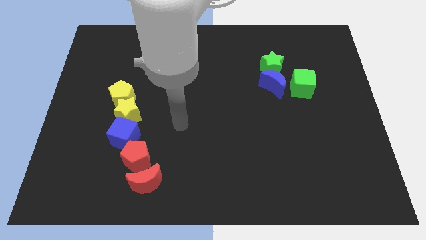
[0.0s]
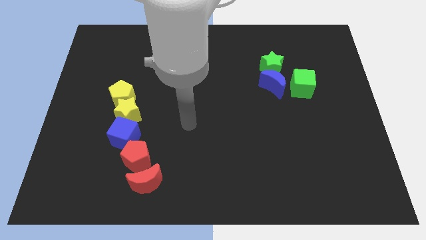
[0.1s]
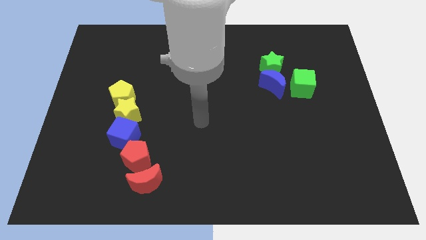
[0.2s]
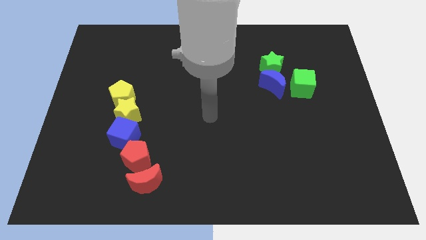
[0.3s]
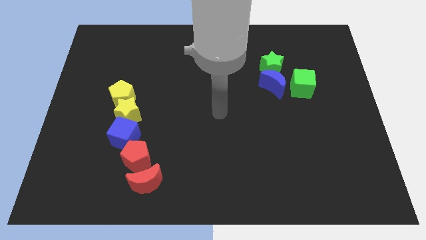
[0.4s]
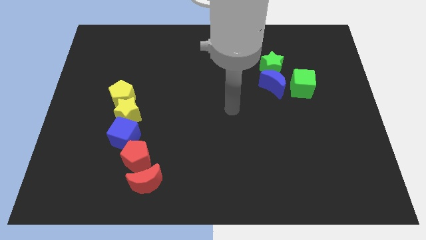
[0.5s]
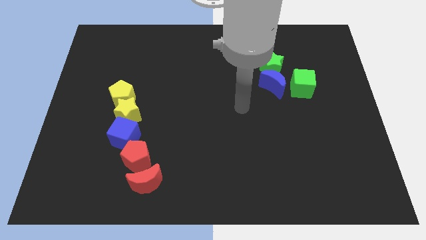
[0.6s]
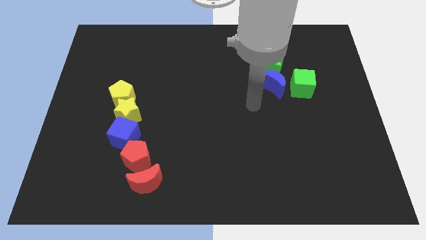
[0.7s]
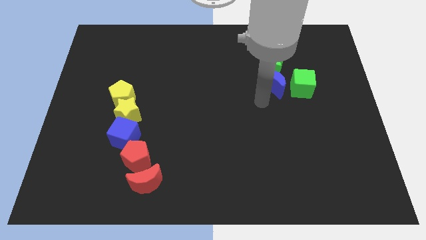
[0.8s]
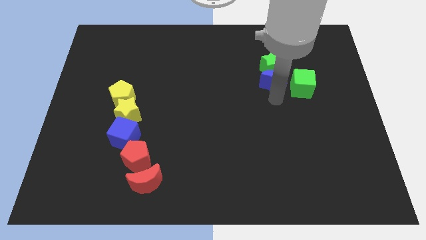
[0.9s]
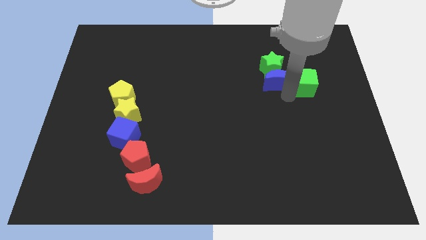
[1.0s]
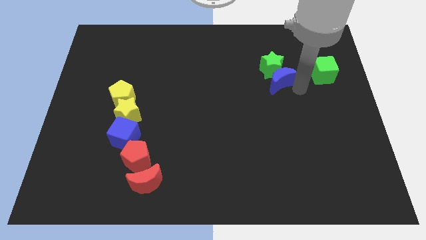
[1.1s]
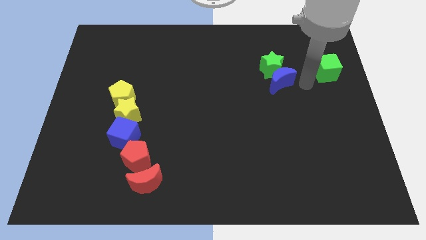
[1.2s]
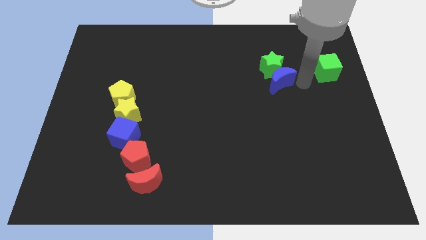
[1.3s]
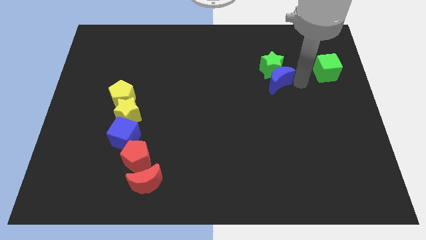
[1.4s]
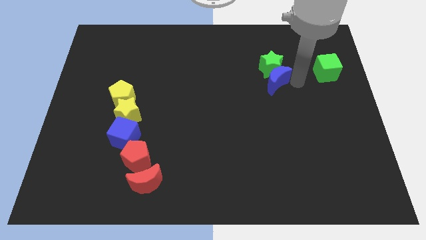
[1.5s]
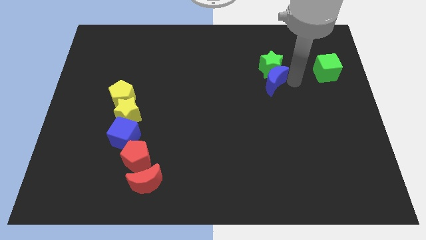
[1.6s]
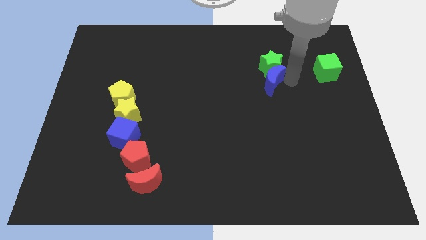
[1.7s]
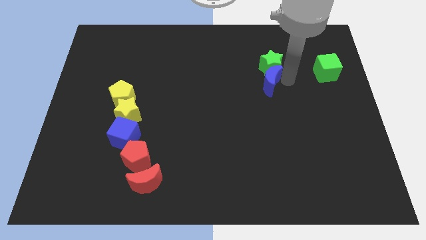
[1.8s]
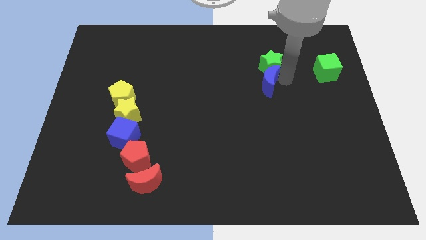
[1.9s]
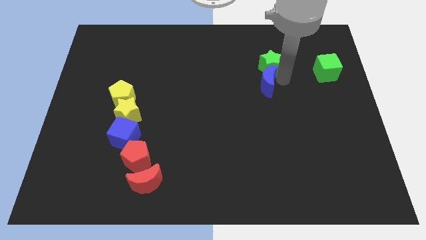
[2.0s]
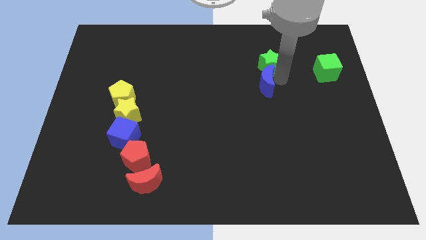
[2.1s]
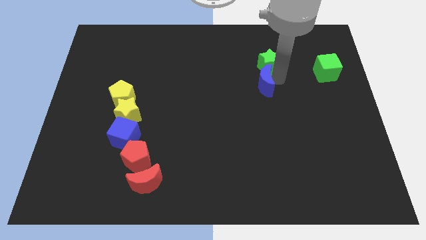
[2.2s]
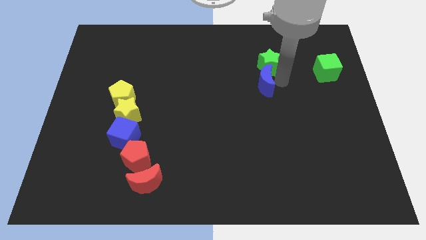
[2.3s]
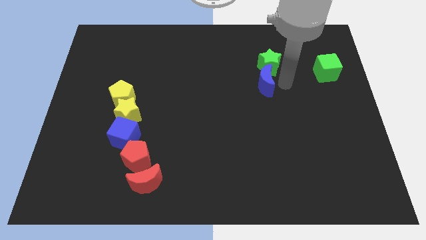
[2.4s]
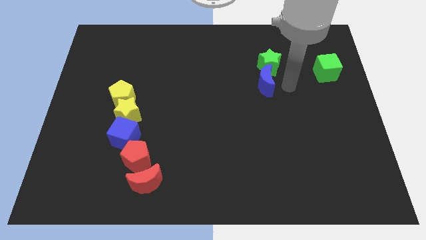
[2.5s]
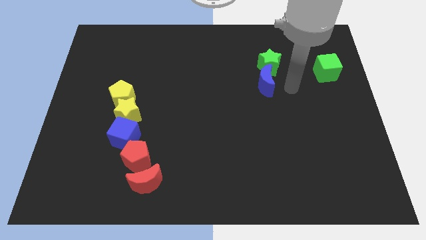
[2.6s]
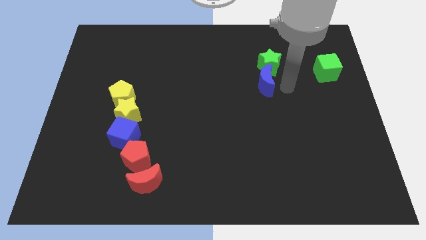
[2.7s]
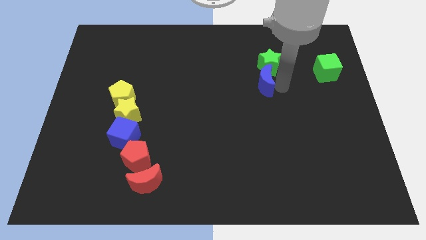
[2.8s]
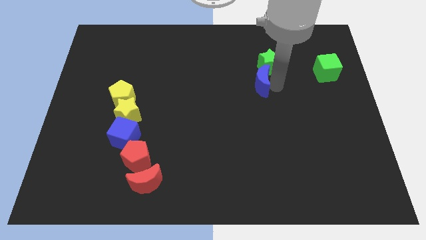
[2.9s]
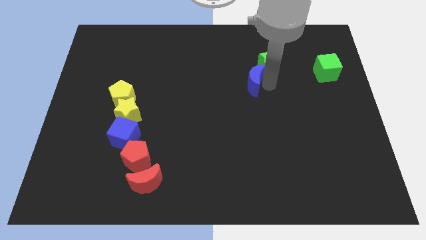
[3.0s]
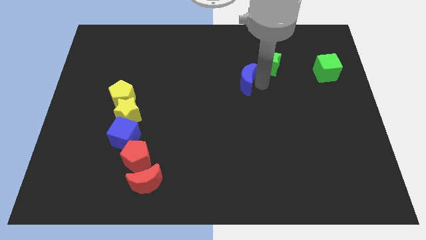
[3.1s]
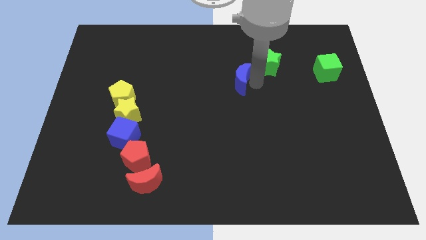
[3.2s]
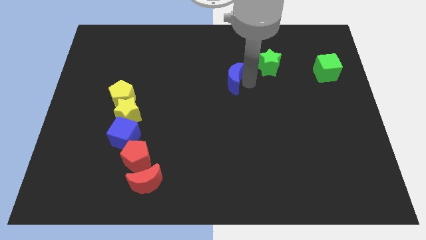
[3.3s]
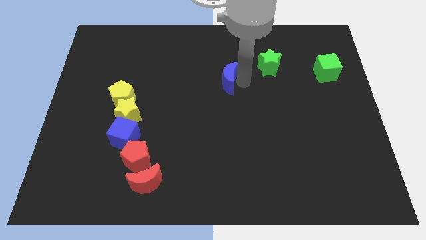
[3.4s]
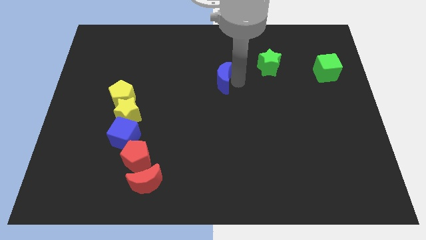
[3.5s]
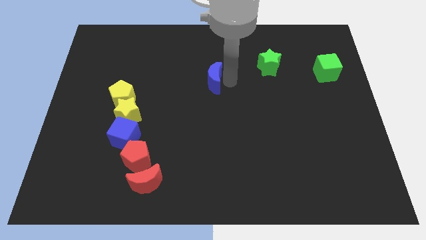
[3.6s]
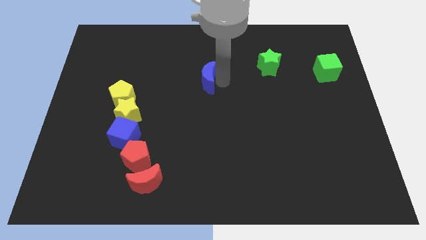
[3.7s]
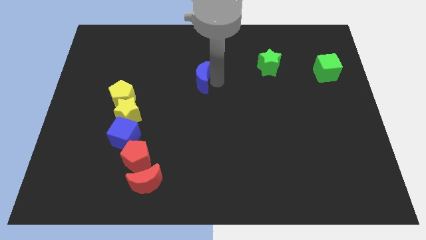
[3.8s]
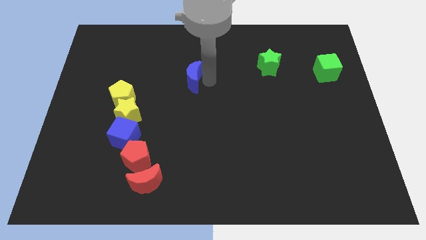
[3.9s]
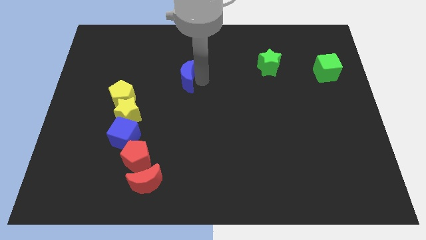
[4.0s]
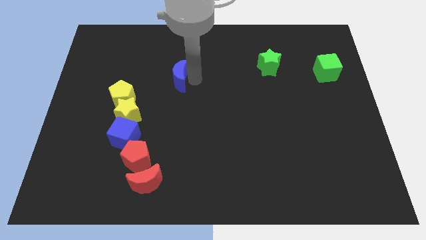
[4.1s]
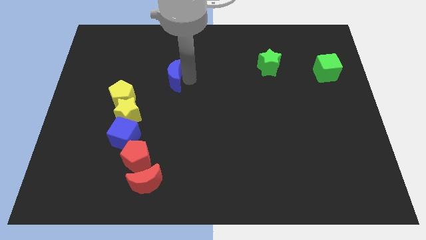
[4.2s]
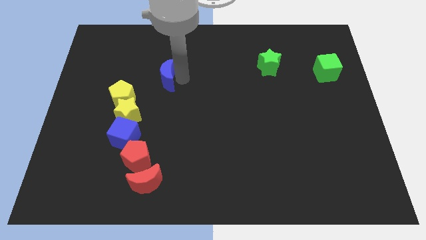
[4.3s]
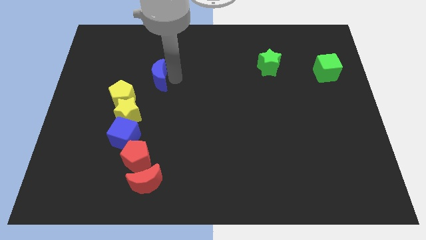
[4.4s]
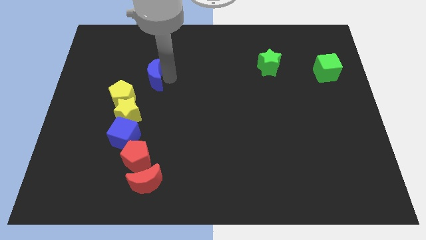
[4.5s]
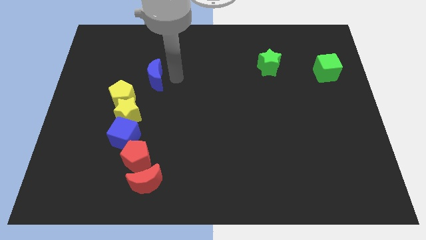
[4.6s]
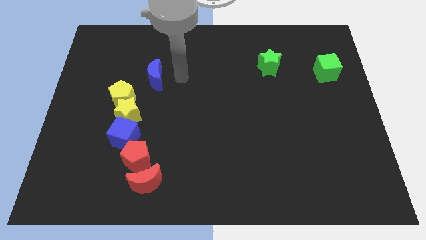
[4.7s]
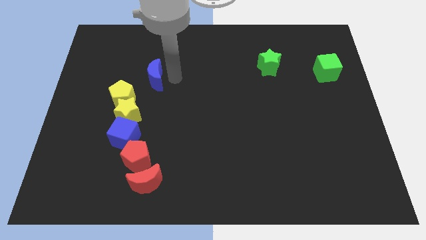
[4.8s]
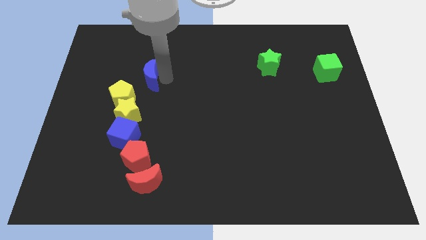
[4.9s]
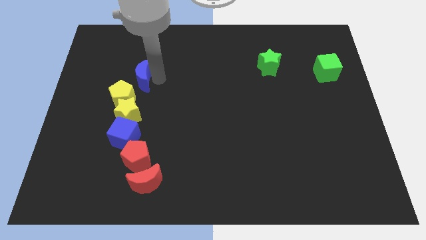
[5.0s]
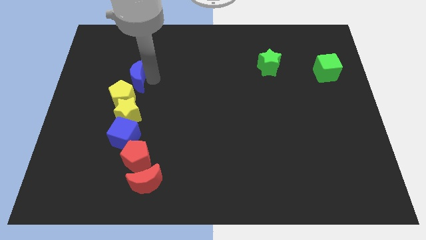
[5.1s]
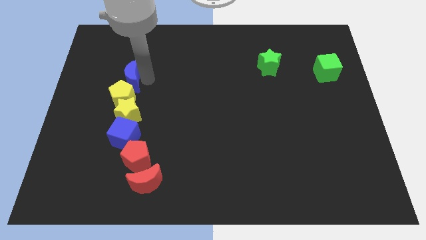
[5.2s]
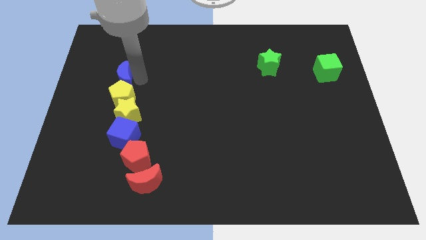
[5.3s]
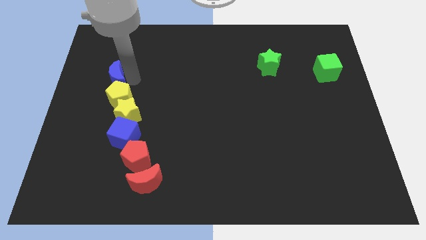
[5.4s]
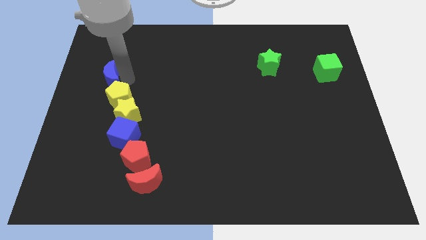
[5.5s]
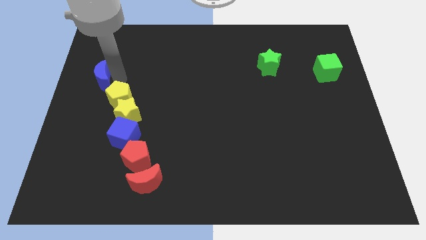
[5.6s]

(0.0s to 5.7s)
slide the blue moon to the left side of the board

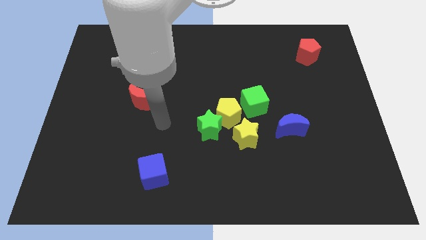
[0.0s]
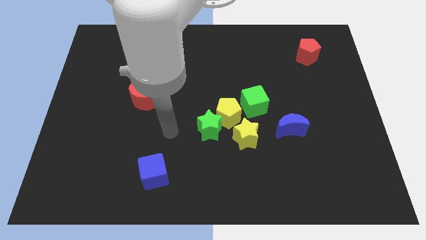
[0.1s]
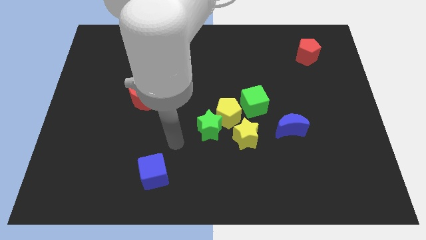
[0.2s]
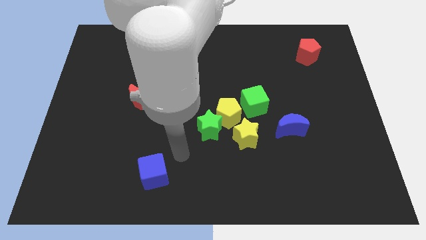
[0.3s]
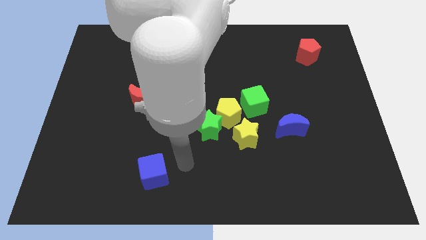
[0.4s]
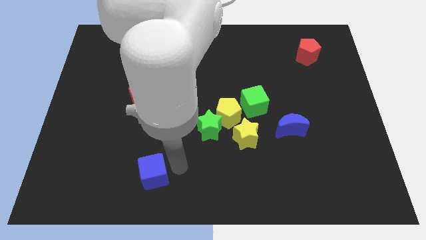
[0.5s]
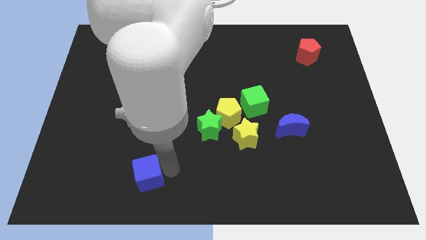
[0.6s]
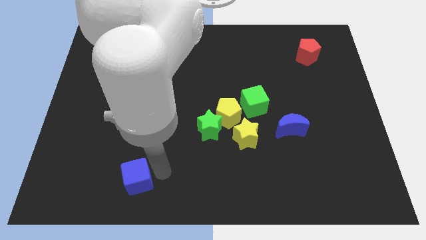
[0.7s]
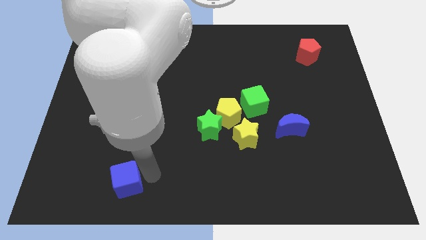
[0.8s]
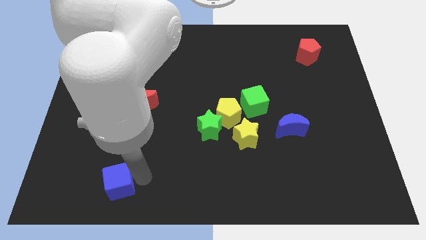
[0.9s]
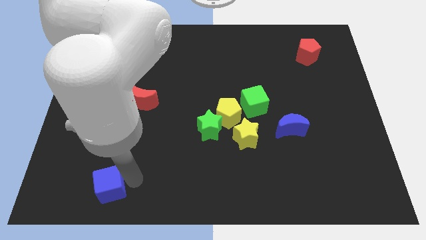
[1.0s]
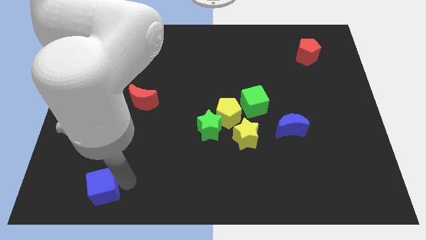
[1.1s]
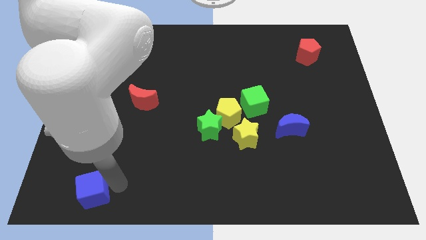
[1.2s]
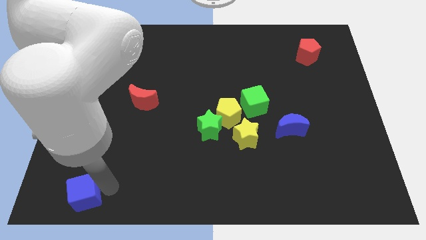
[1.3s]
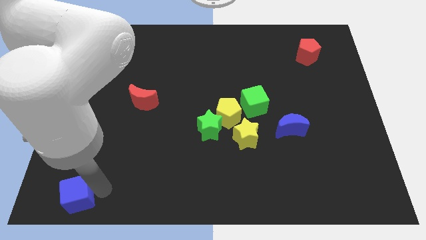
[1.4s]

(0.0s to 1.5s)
move the blue cube to the bottom left

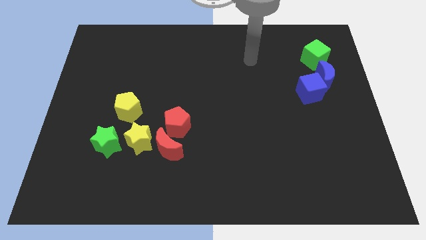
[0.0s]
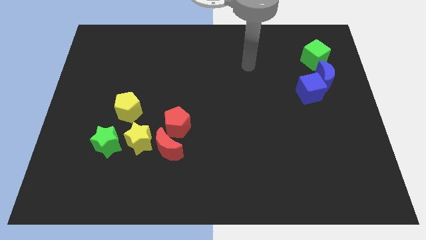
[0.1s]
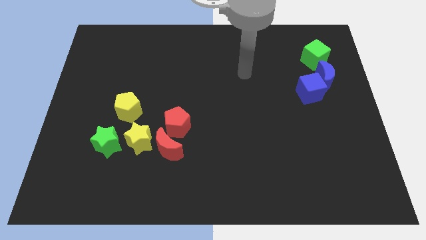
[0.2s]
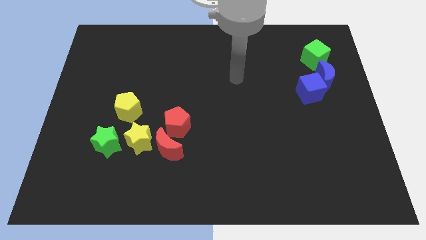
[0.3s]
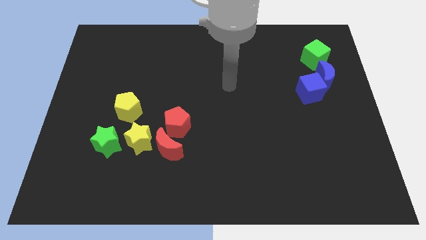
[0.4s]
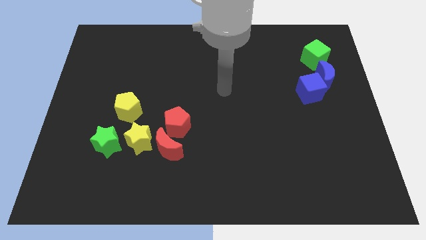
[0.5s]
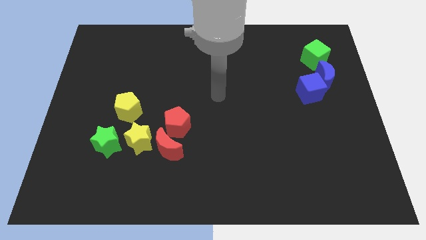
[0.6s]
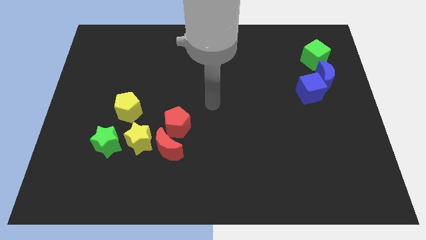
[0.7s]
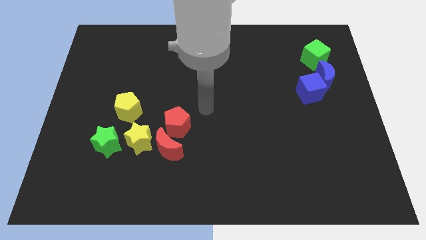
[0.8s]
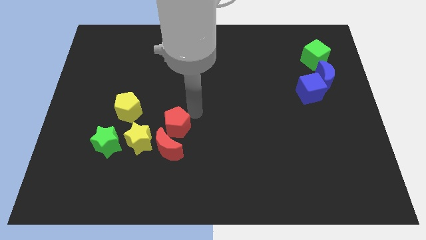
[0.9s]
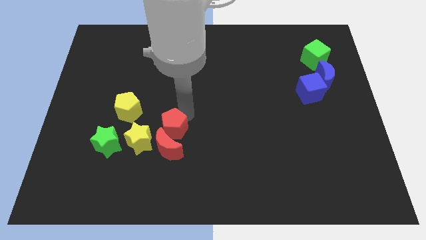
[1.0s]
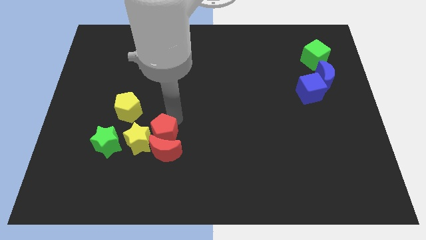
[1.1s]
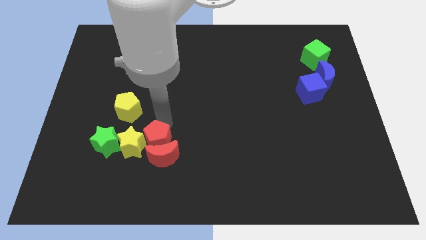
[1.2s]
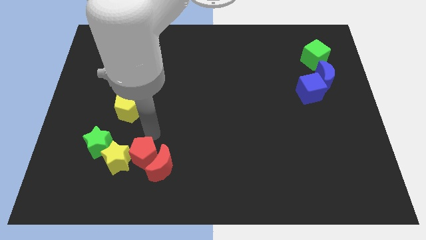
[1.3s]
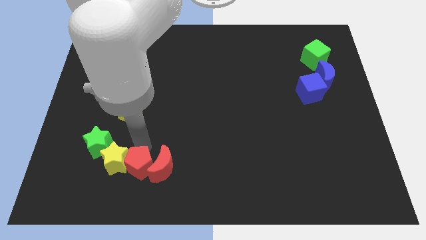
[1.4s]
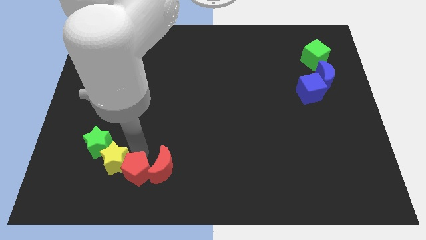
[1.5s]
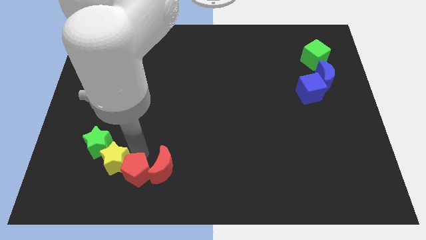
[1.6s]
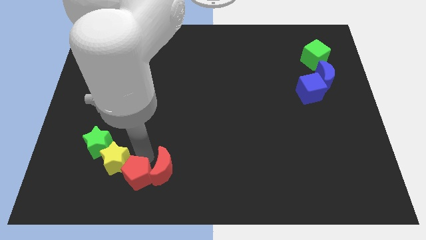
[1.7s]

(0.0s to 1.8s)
push the red moon to the bottom side
